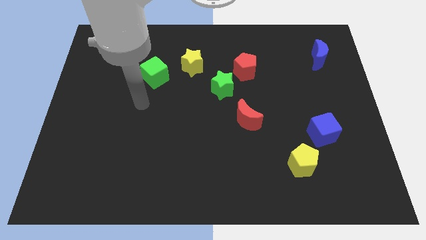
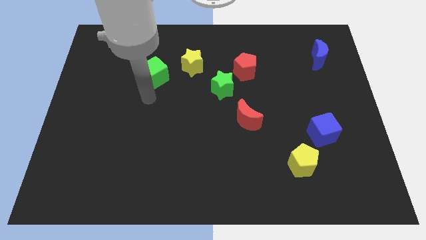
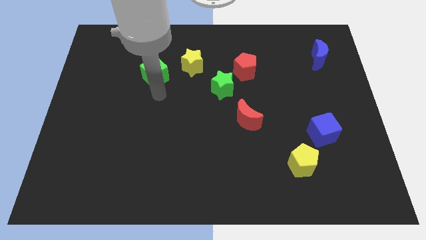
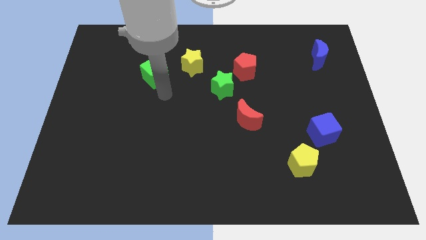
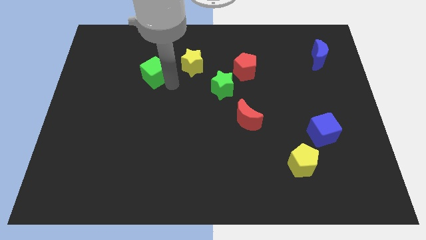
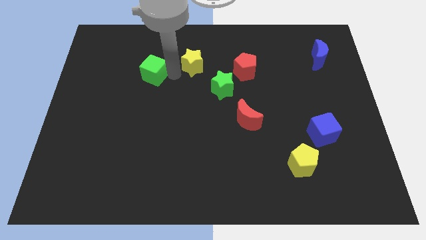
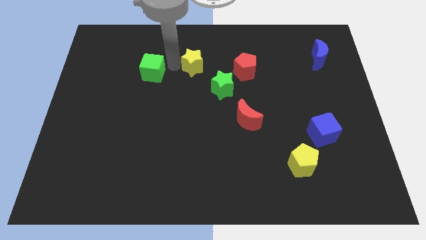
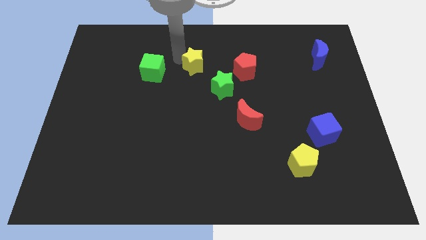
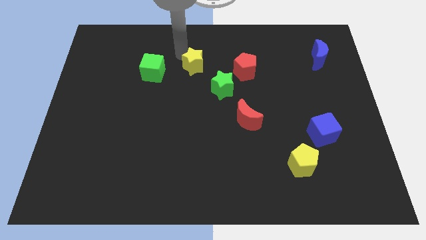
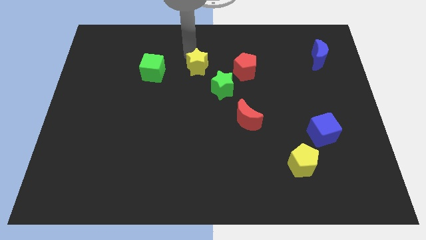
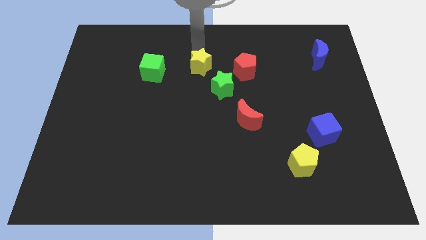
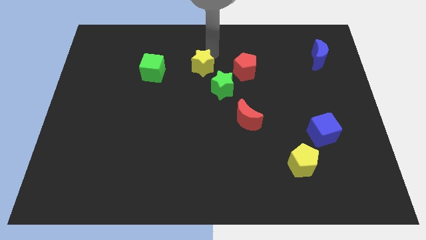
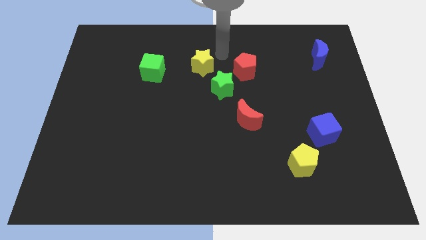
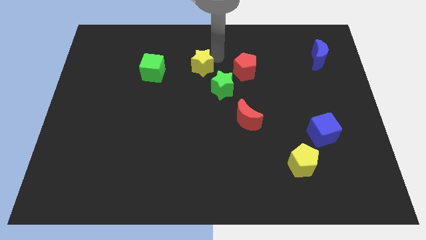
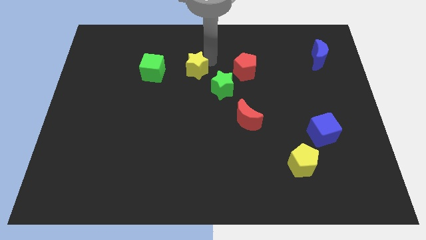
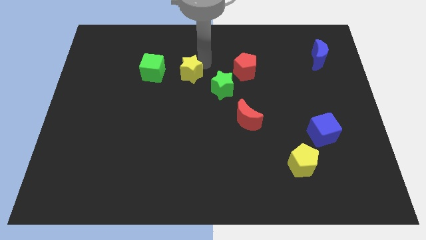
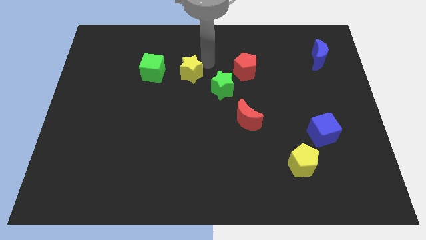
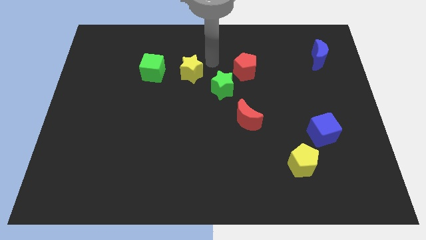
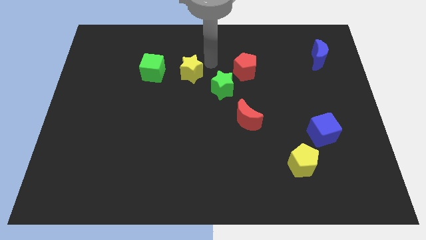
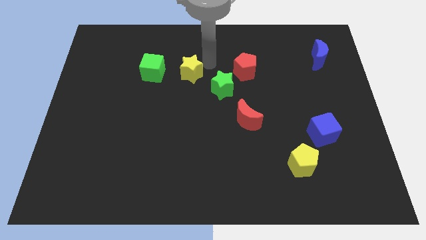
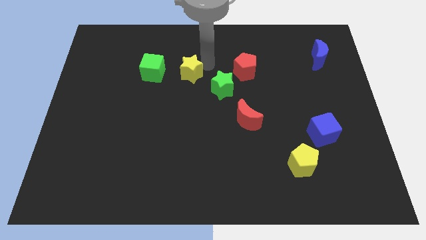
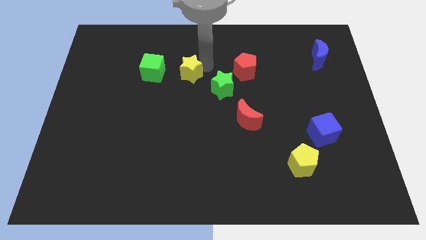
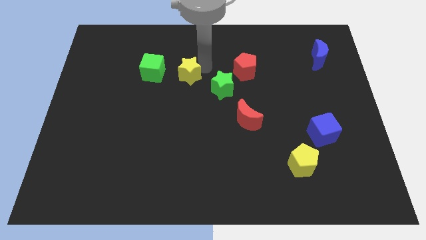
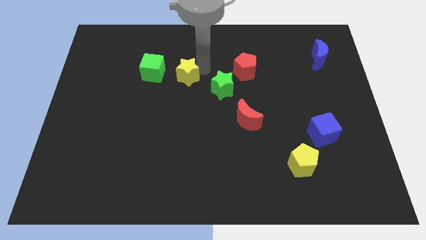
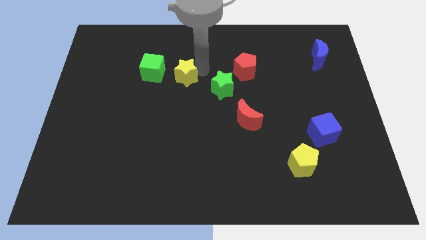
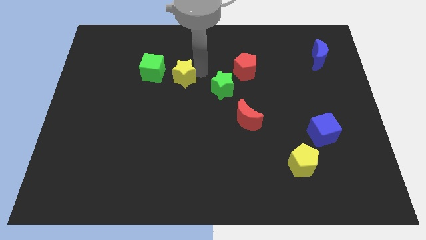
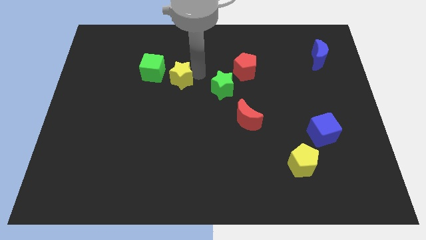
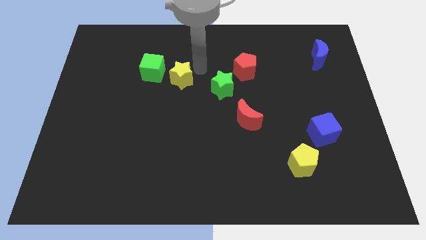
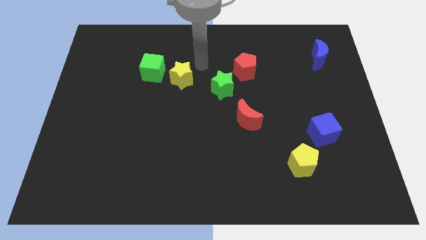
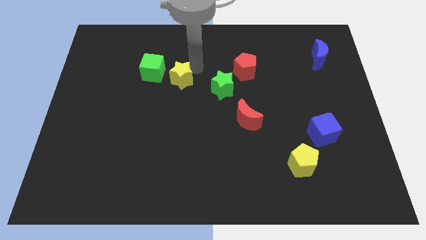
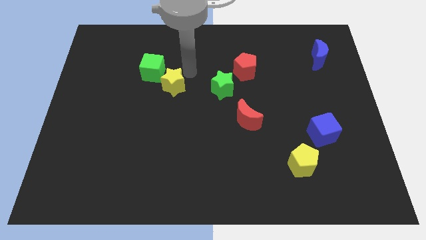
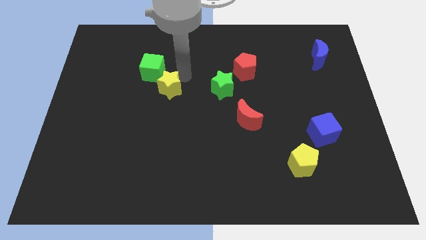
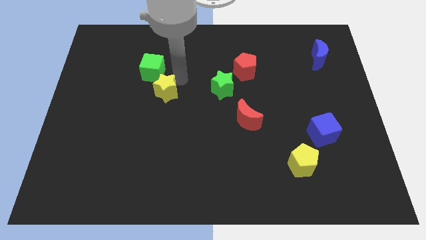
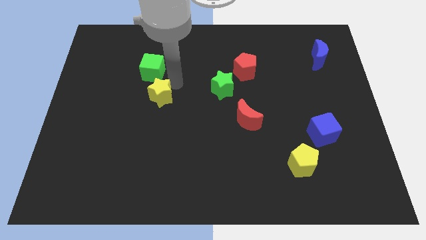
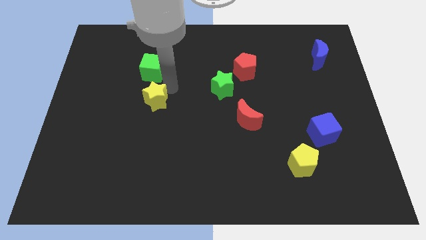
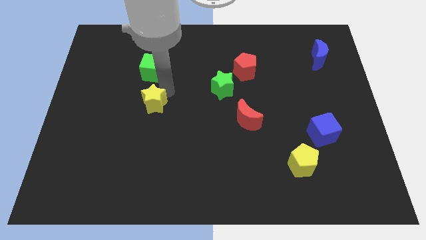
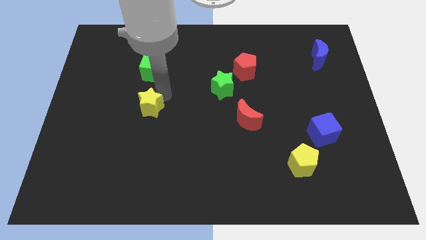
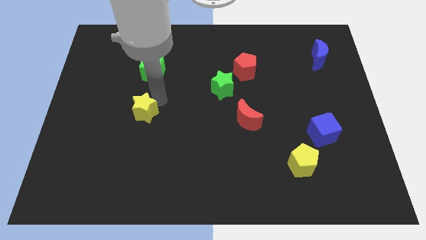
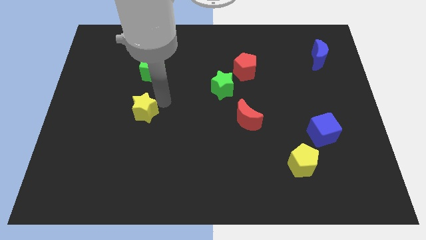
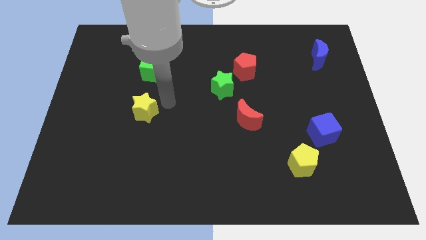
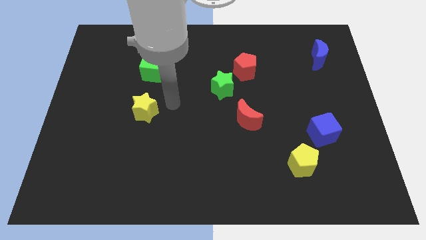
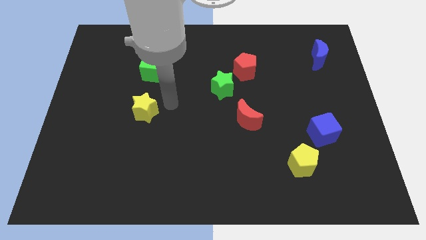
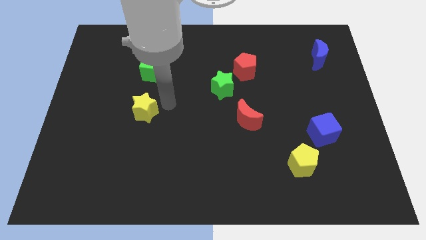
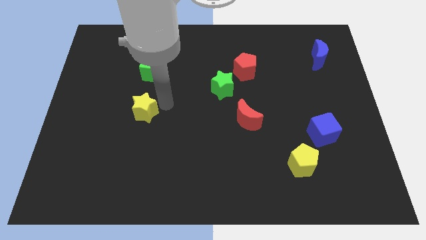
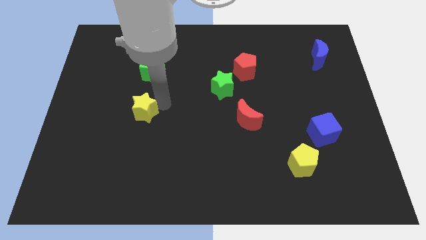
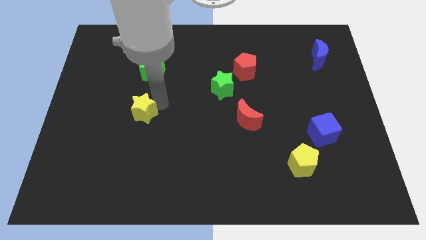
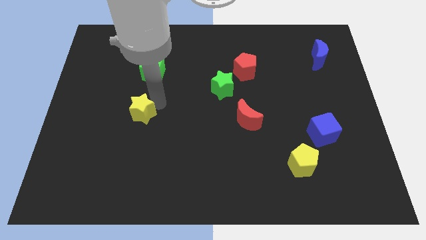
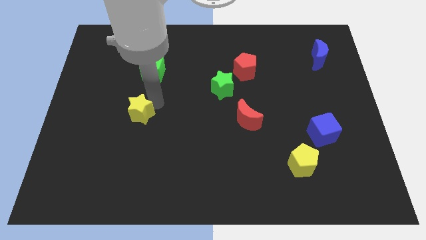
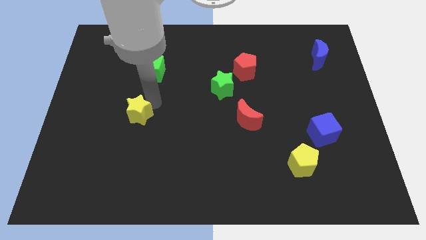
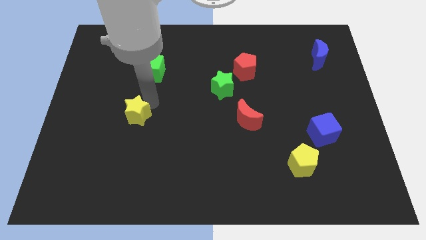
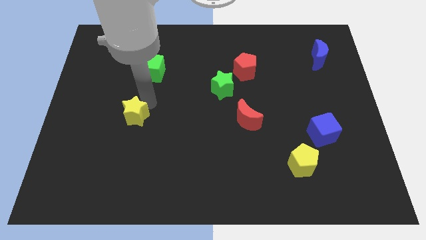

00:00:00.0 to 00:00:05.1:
move the yellow star down and to the left

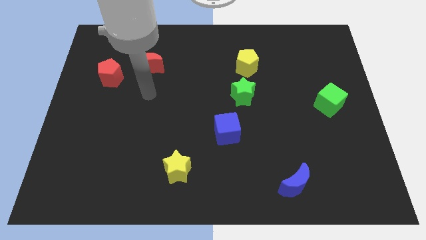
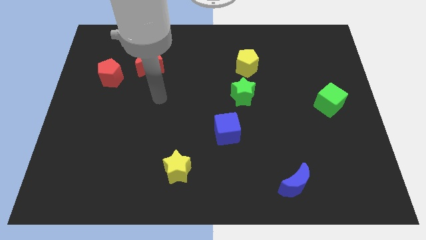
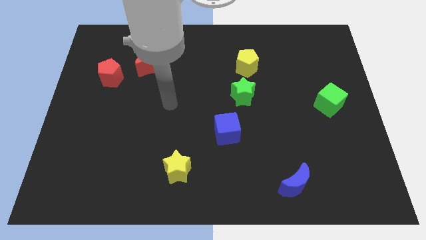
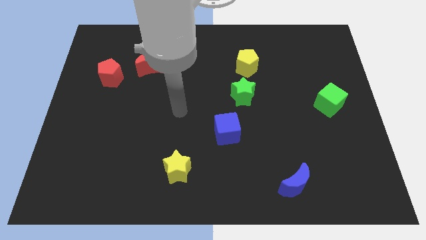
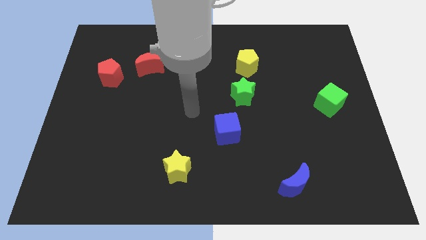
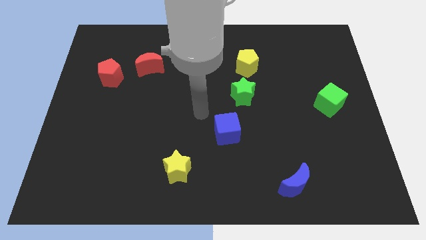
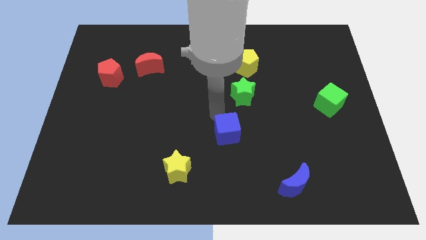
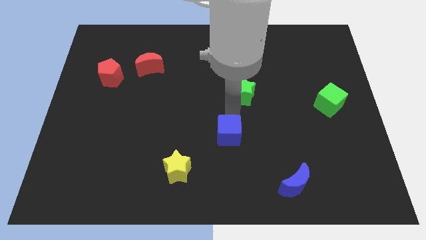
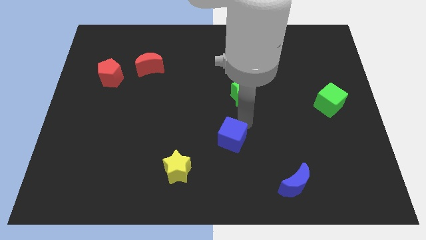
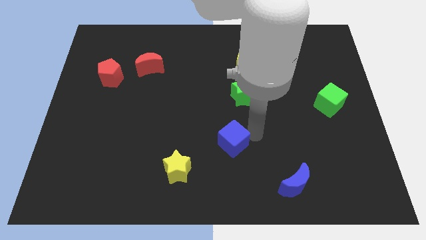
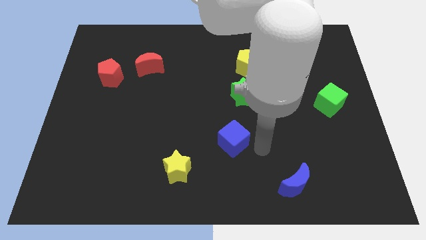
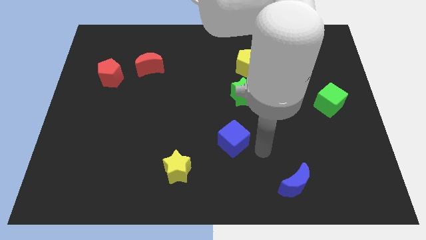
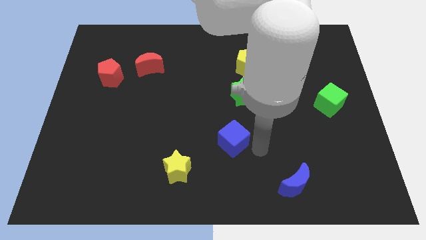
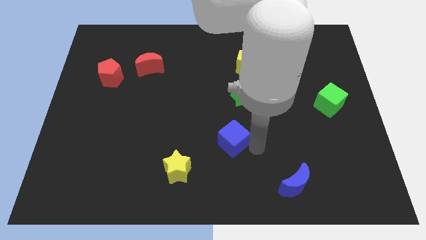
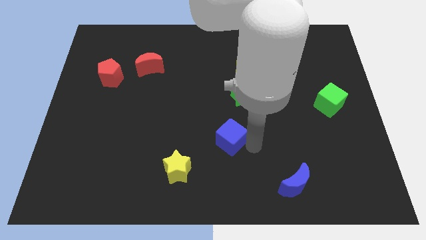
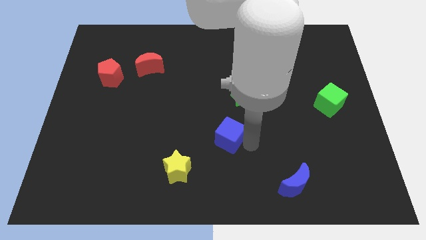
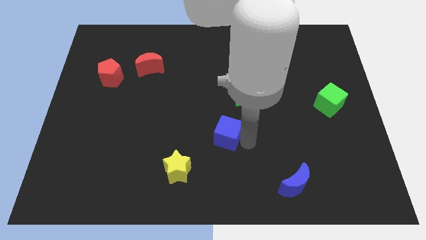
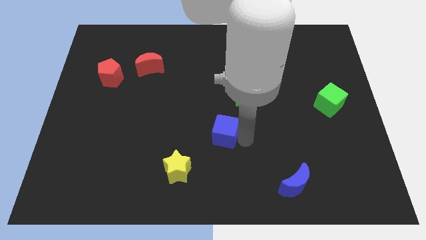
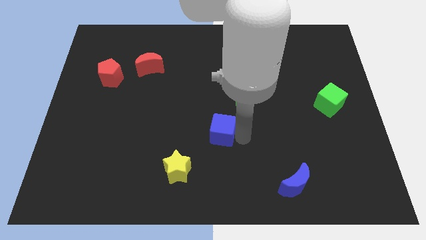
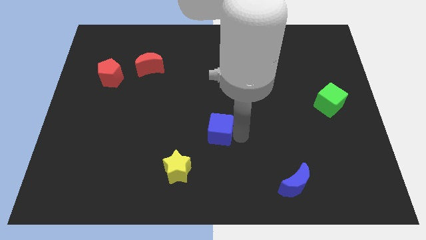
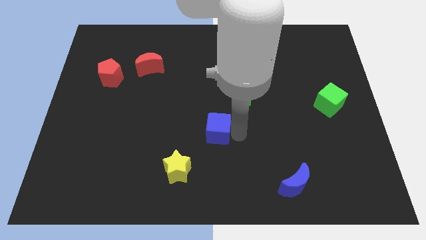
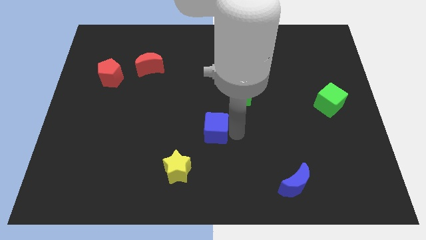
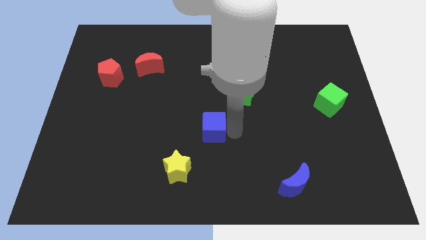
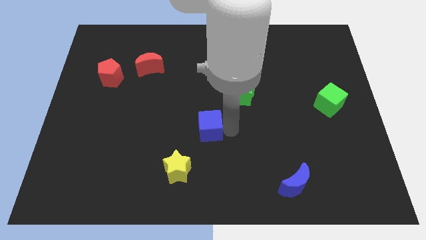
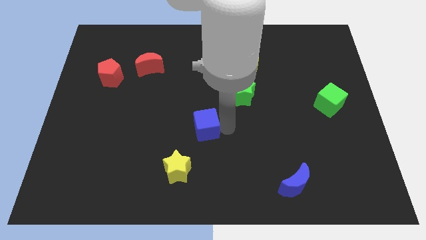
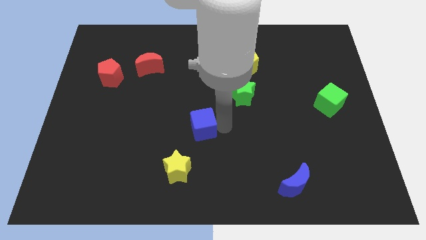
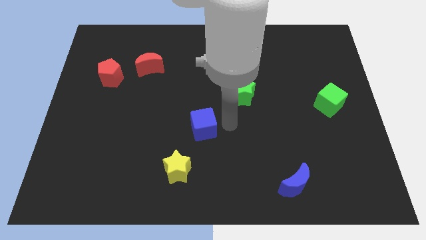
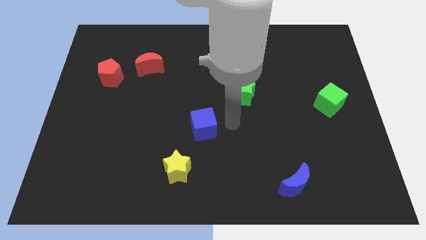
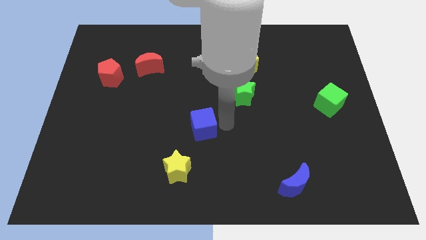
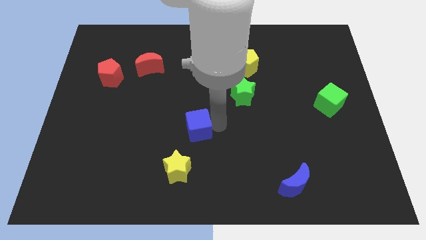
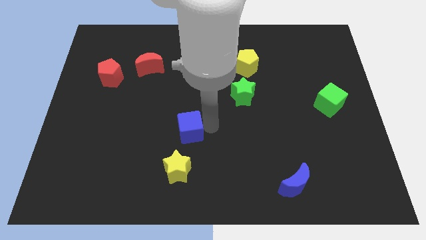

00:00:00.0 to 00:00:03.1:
push the blue cube left a bit
